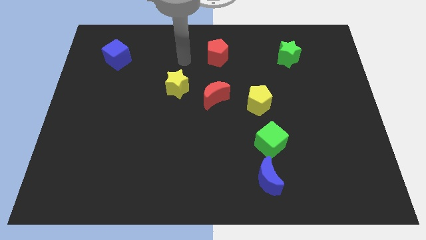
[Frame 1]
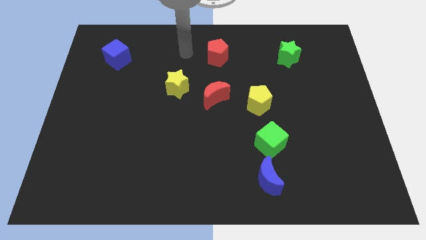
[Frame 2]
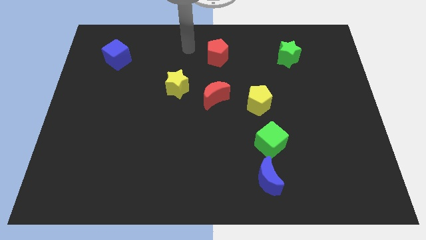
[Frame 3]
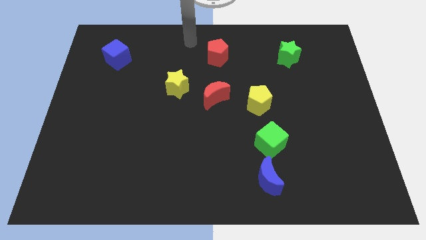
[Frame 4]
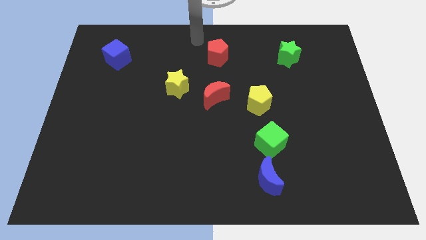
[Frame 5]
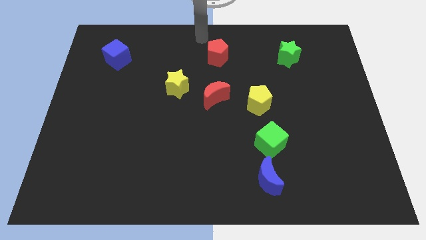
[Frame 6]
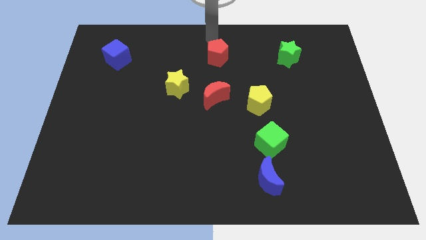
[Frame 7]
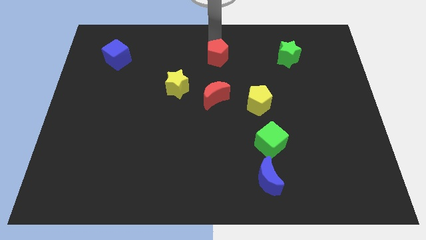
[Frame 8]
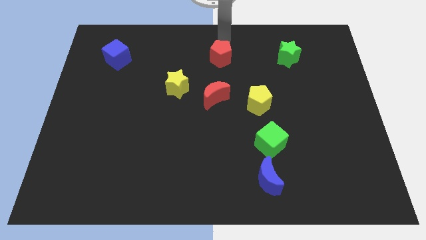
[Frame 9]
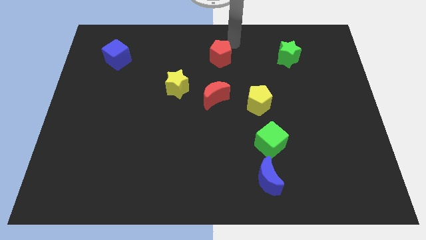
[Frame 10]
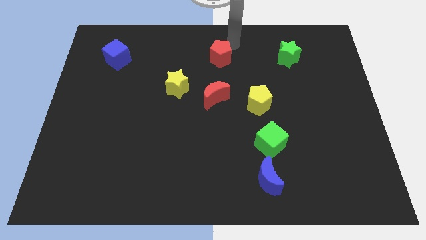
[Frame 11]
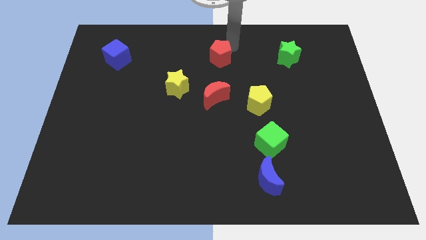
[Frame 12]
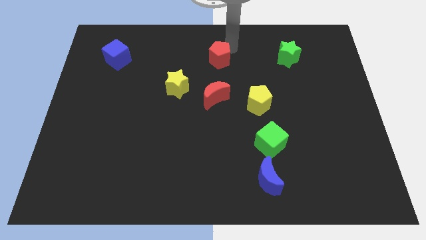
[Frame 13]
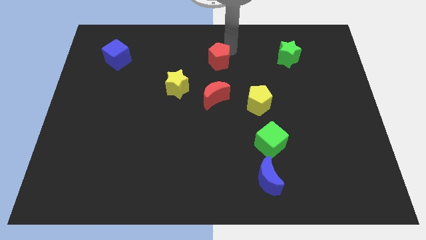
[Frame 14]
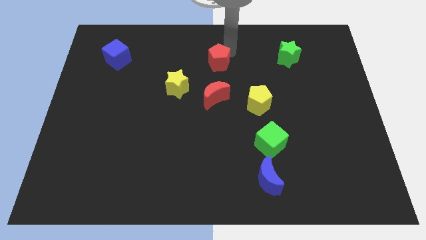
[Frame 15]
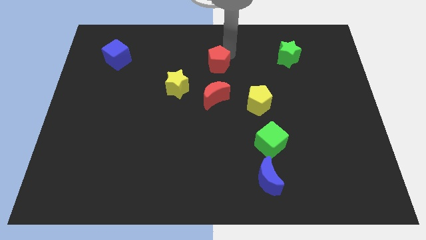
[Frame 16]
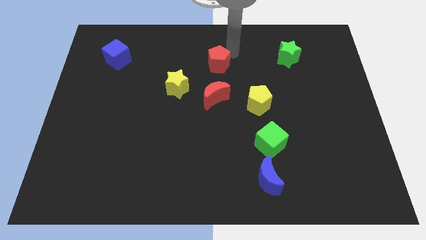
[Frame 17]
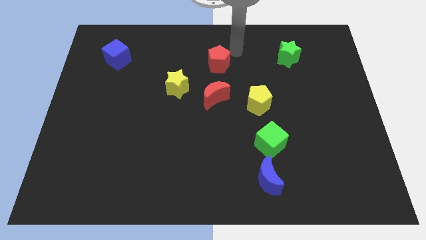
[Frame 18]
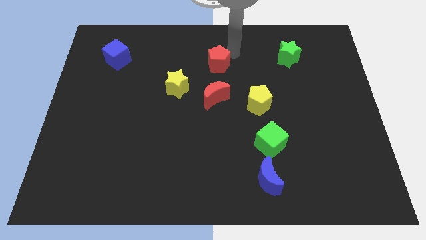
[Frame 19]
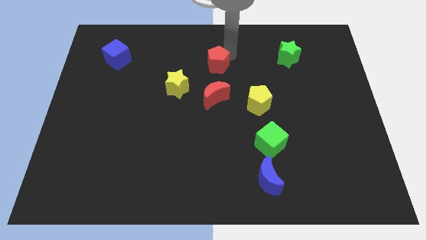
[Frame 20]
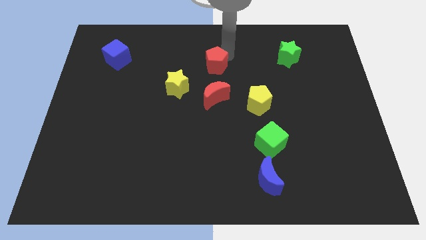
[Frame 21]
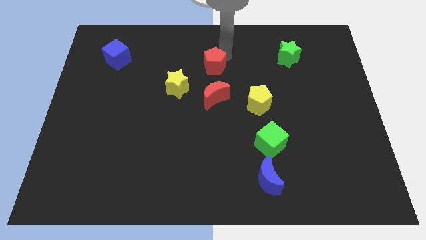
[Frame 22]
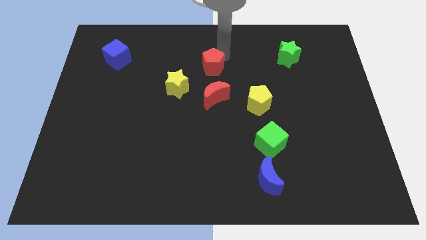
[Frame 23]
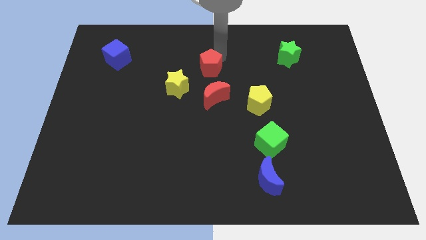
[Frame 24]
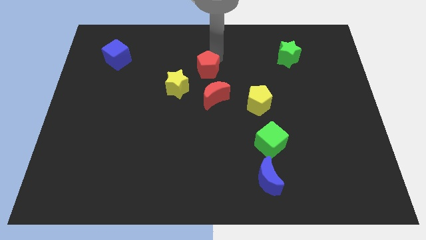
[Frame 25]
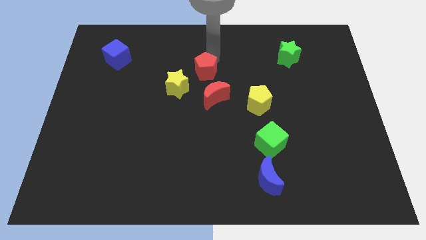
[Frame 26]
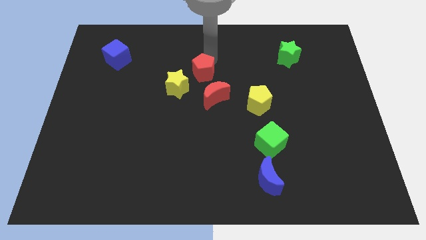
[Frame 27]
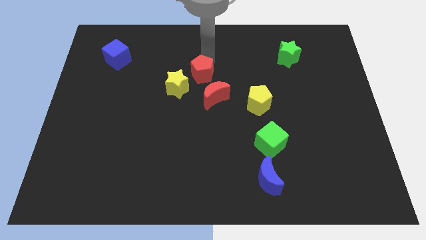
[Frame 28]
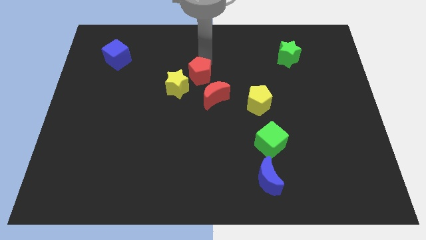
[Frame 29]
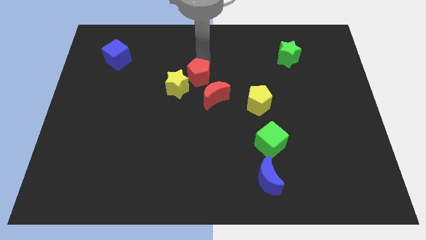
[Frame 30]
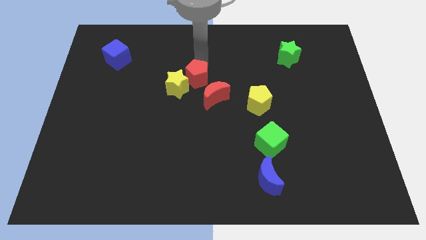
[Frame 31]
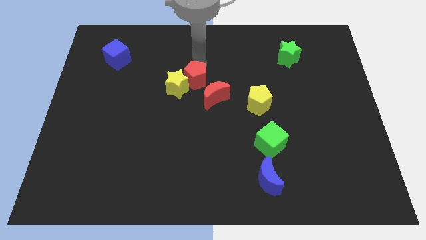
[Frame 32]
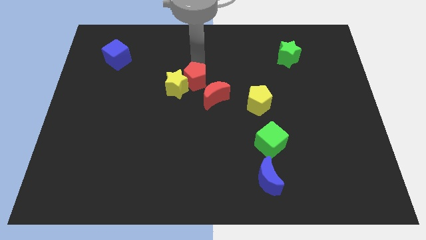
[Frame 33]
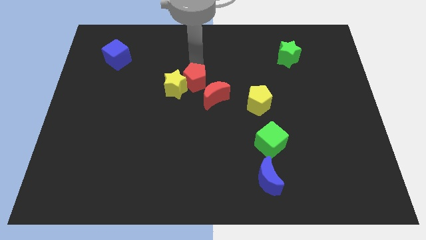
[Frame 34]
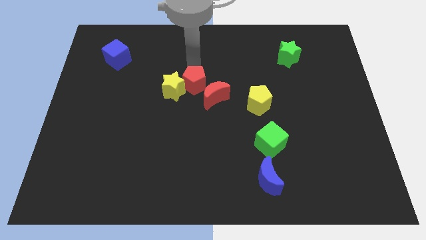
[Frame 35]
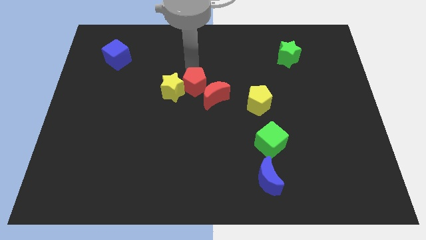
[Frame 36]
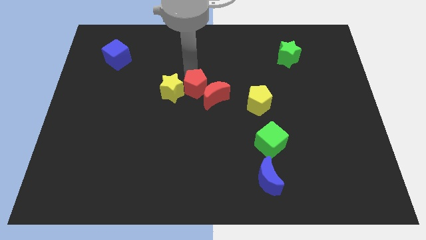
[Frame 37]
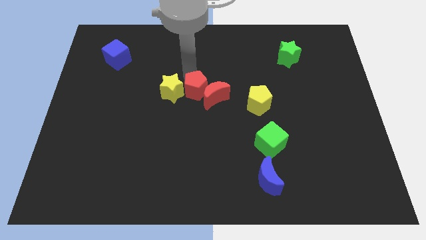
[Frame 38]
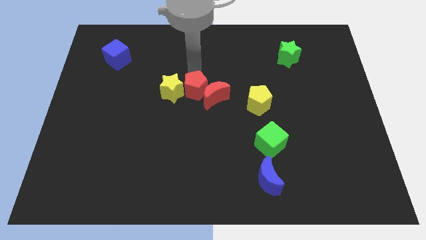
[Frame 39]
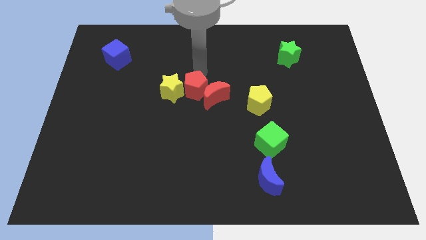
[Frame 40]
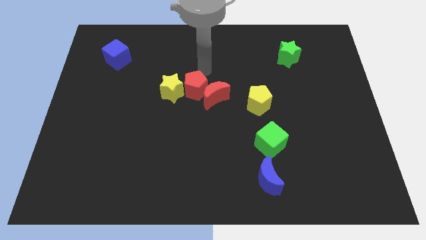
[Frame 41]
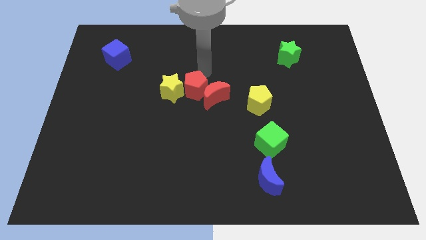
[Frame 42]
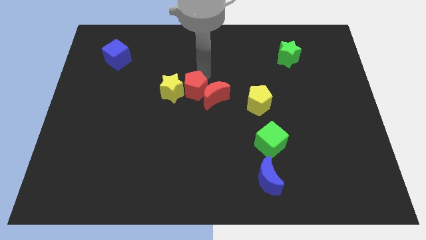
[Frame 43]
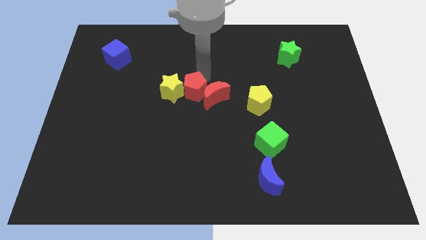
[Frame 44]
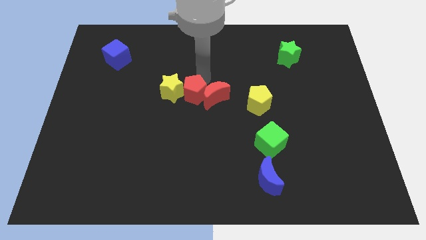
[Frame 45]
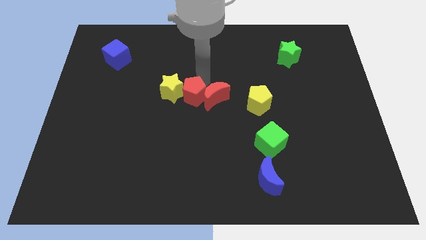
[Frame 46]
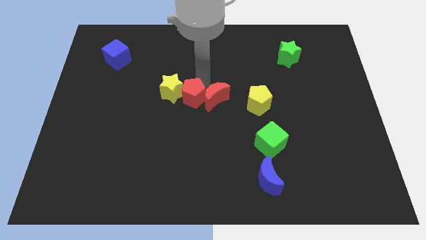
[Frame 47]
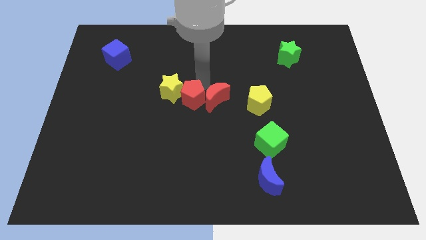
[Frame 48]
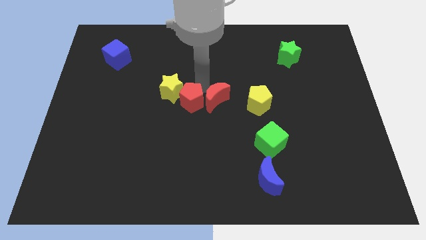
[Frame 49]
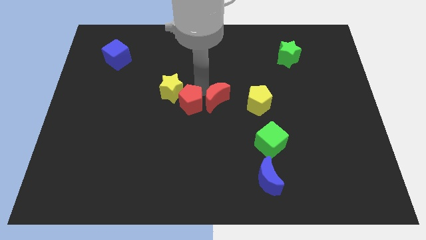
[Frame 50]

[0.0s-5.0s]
push the red pentagon to the bottom side of the yellow star

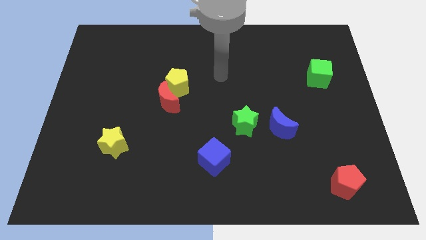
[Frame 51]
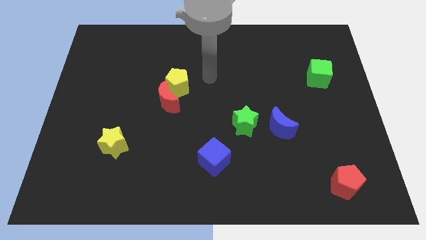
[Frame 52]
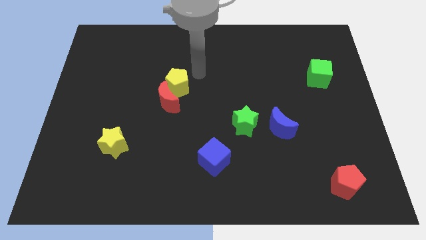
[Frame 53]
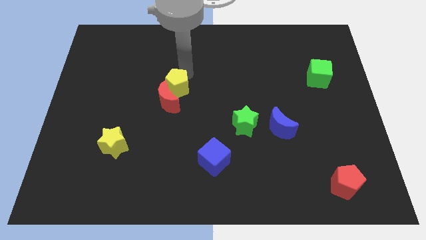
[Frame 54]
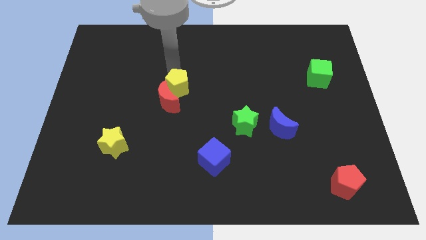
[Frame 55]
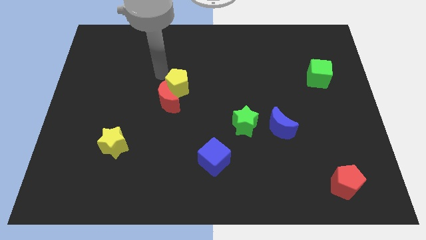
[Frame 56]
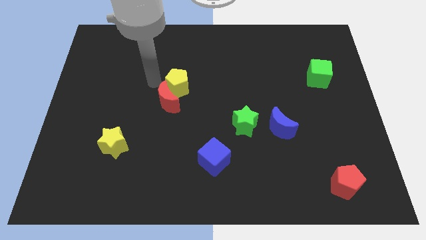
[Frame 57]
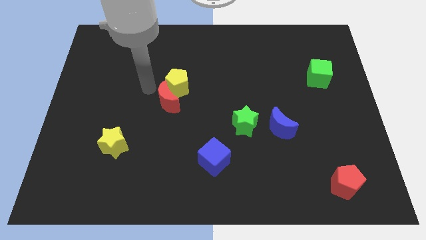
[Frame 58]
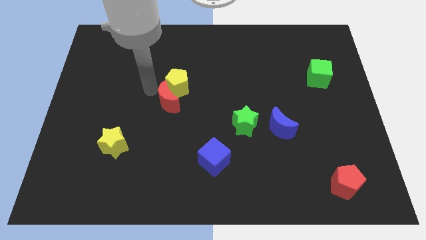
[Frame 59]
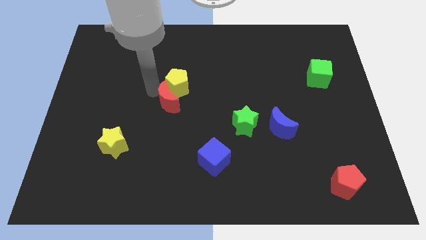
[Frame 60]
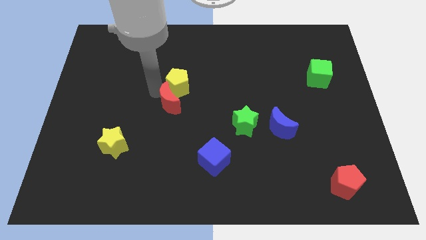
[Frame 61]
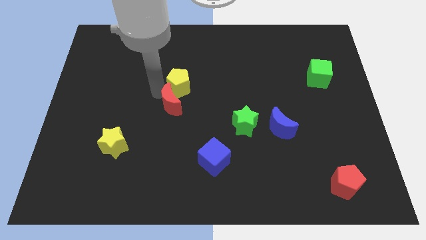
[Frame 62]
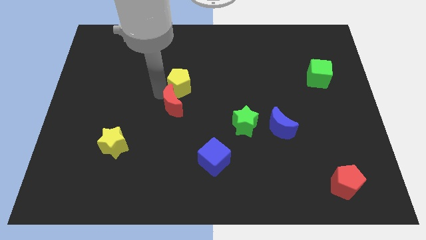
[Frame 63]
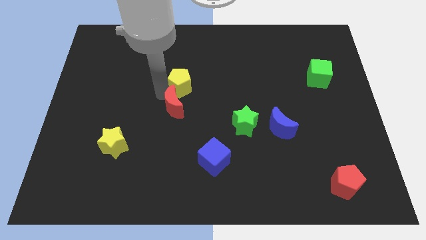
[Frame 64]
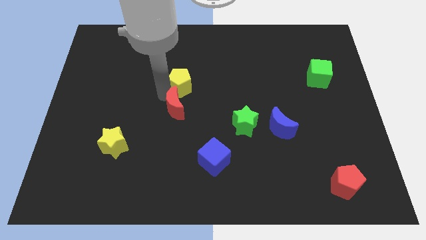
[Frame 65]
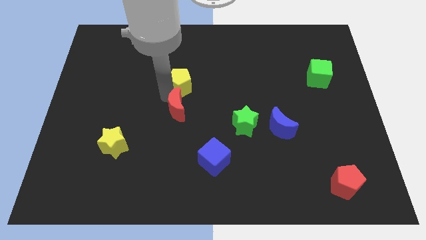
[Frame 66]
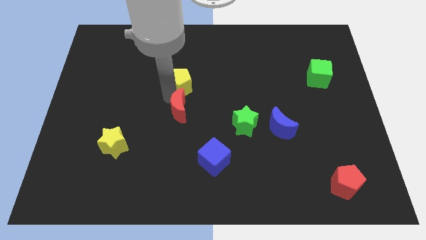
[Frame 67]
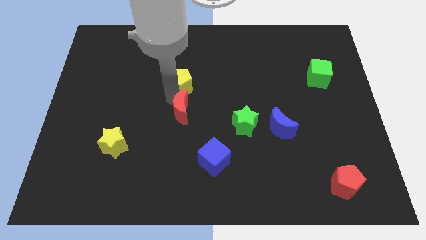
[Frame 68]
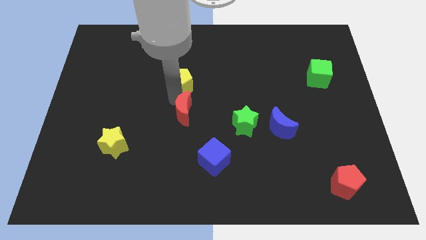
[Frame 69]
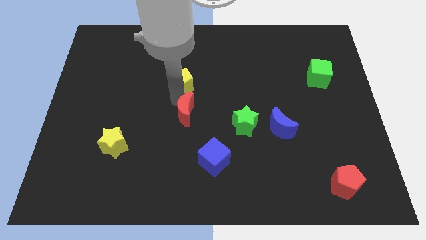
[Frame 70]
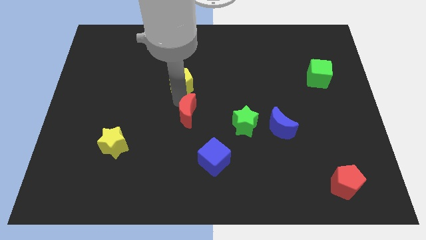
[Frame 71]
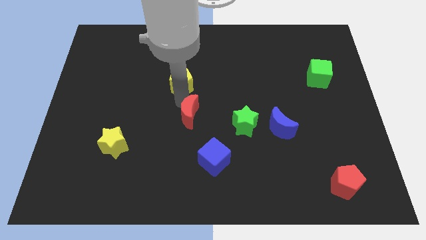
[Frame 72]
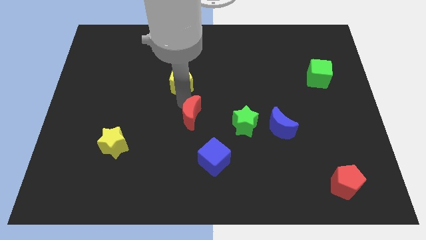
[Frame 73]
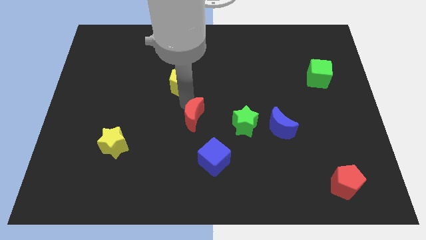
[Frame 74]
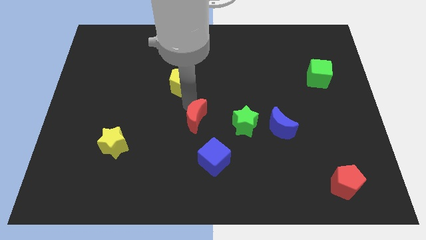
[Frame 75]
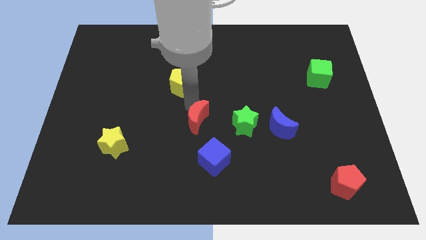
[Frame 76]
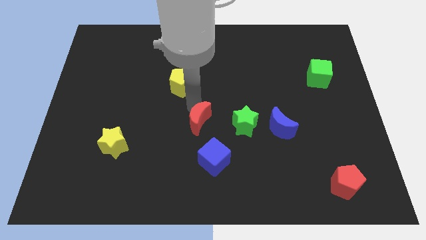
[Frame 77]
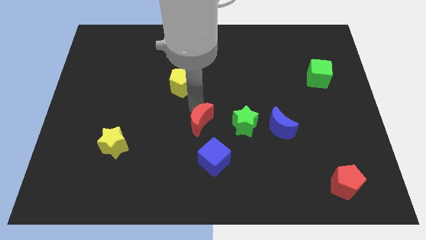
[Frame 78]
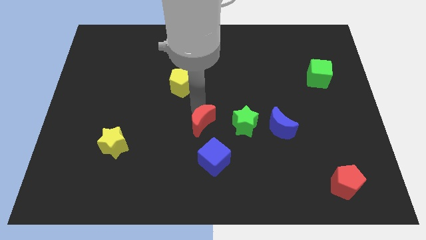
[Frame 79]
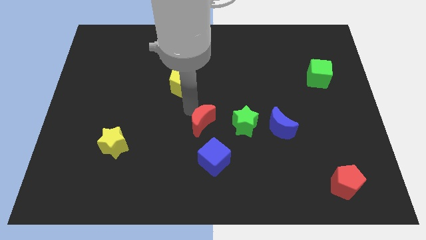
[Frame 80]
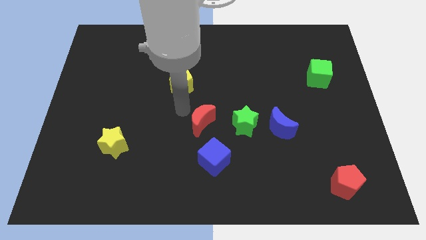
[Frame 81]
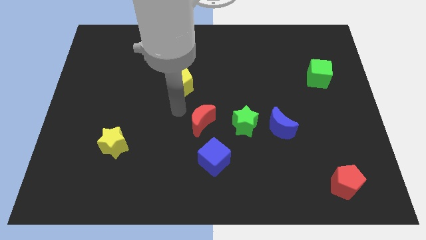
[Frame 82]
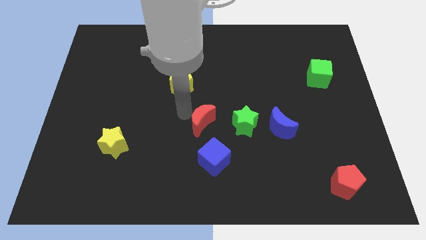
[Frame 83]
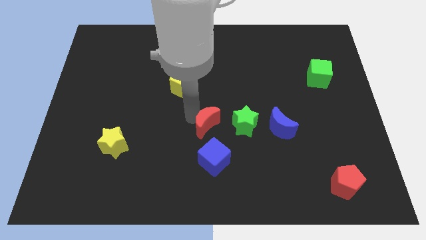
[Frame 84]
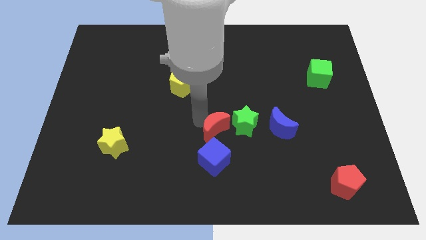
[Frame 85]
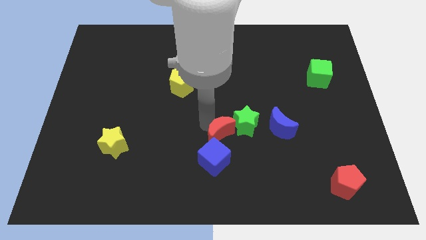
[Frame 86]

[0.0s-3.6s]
push the red moon to the top right side of the blue cube
